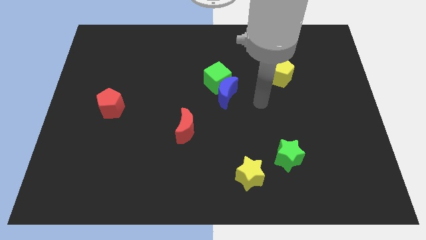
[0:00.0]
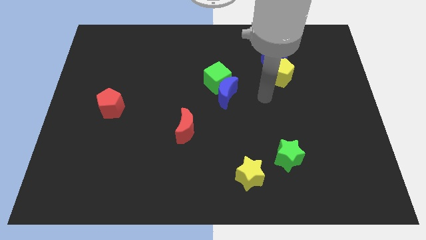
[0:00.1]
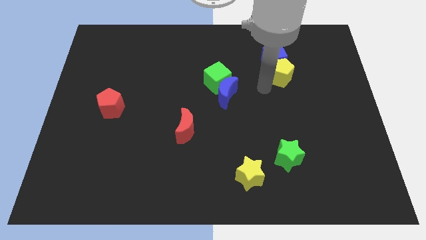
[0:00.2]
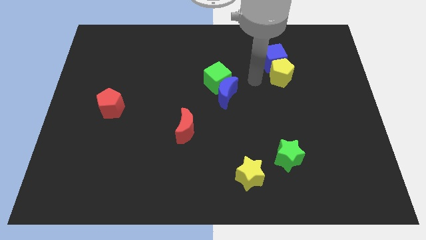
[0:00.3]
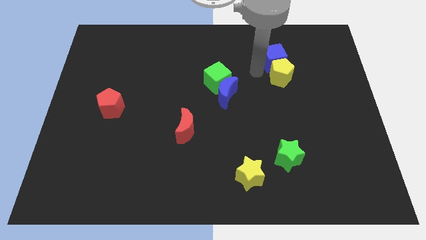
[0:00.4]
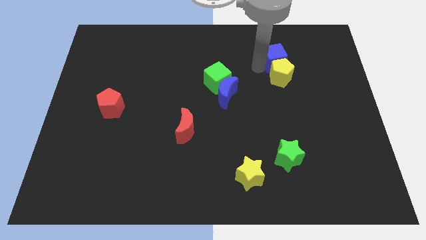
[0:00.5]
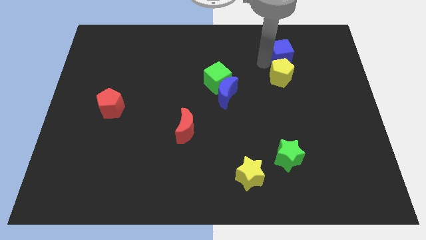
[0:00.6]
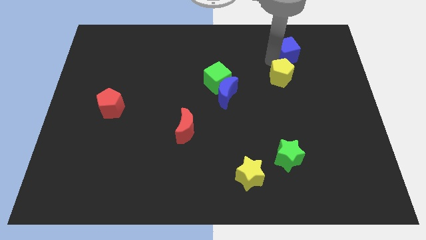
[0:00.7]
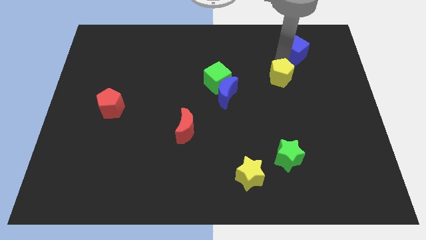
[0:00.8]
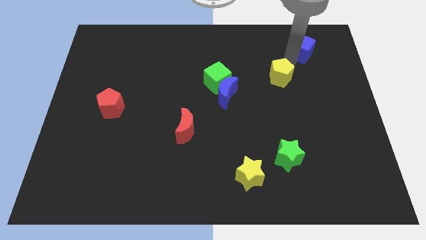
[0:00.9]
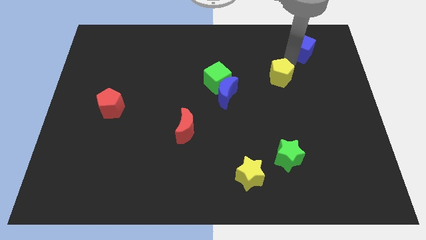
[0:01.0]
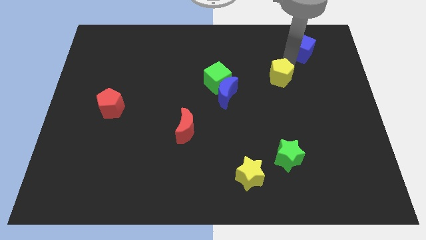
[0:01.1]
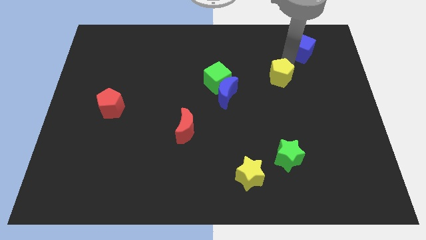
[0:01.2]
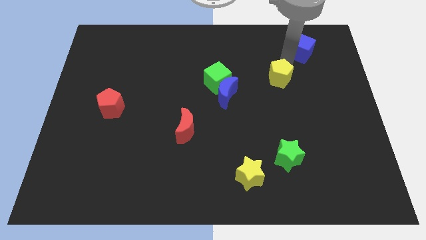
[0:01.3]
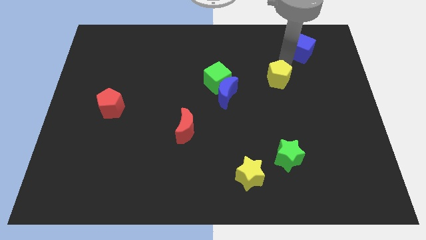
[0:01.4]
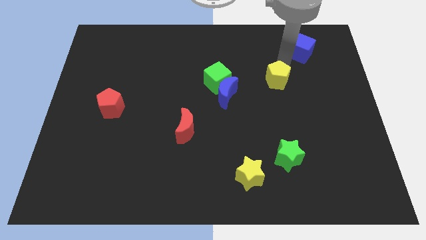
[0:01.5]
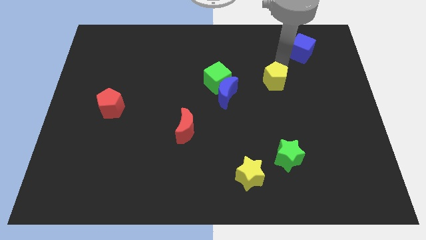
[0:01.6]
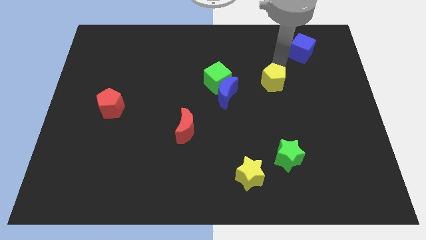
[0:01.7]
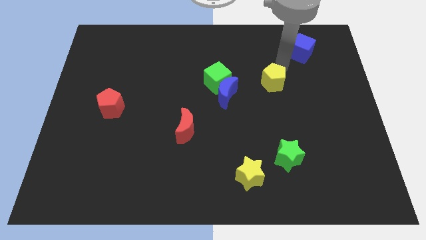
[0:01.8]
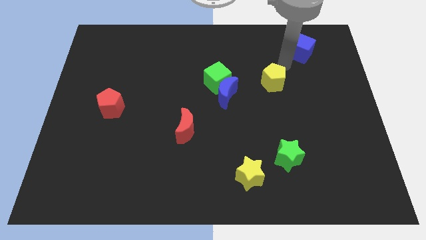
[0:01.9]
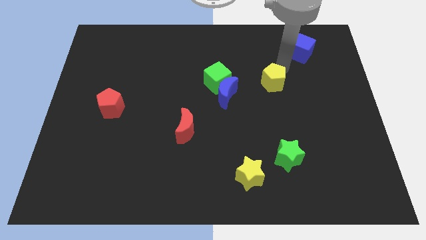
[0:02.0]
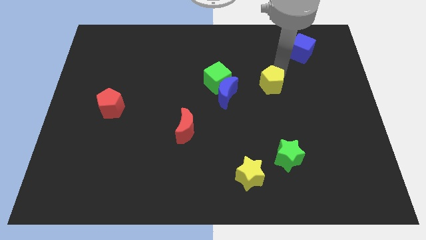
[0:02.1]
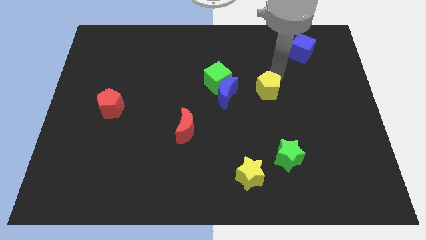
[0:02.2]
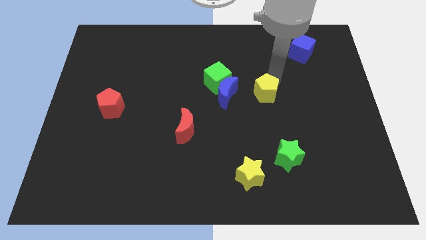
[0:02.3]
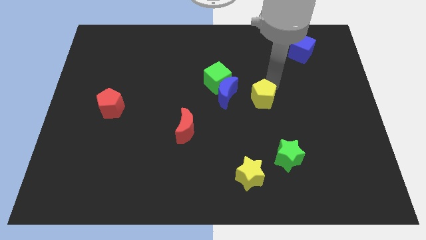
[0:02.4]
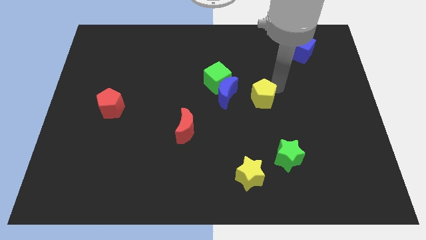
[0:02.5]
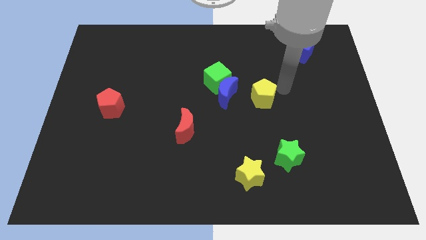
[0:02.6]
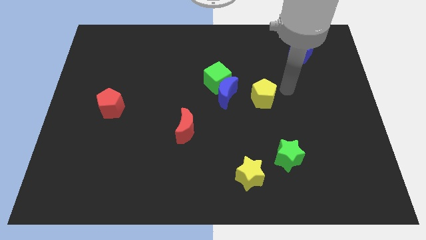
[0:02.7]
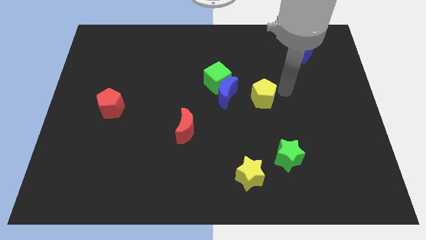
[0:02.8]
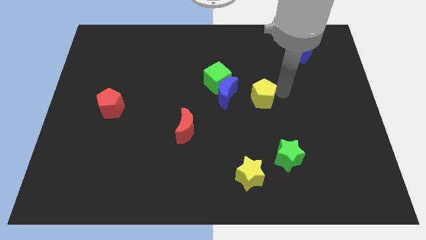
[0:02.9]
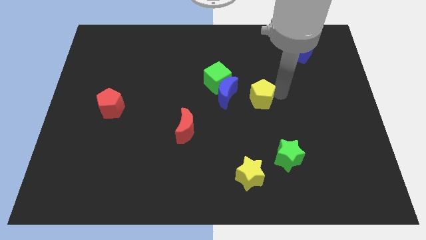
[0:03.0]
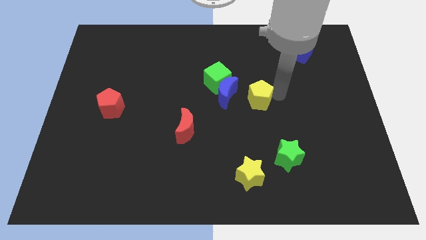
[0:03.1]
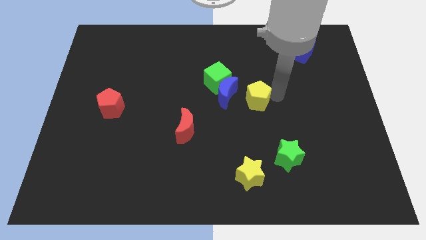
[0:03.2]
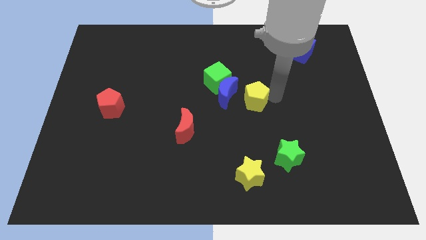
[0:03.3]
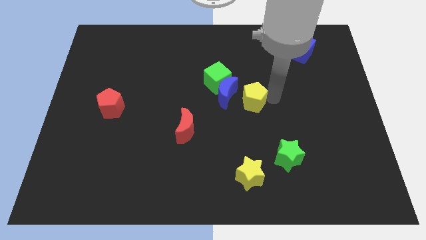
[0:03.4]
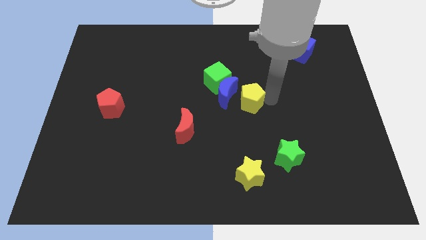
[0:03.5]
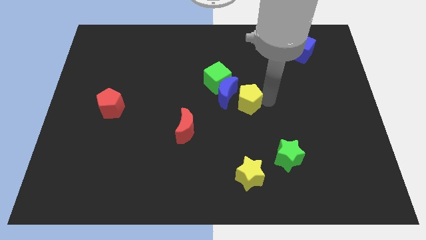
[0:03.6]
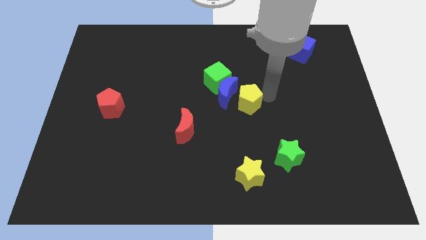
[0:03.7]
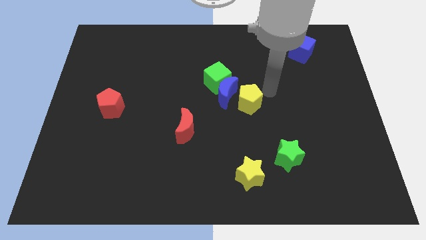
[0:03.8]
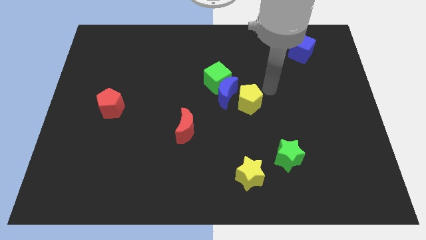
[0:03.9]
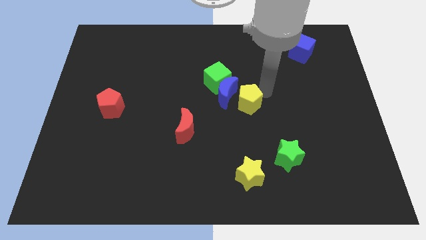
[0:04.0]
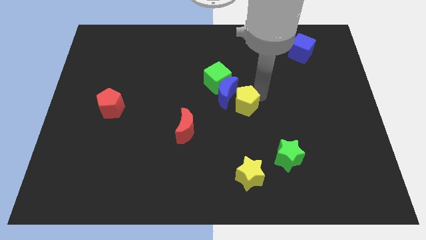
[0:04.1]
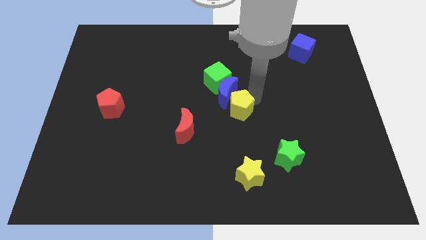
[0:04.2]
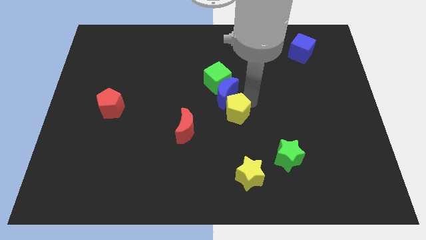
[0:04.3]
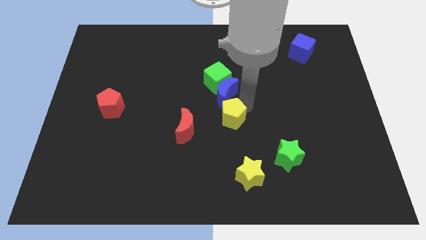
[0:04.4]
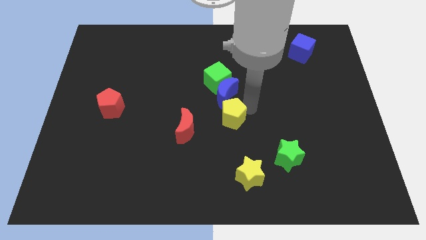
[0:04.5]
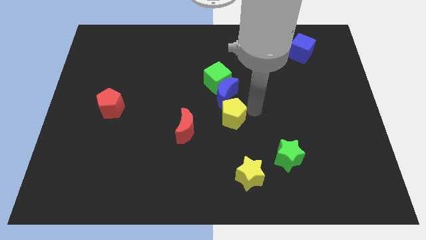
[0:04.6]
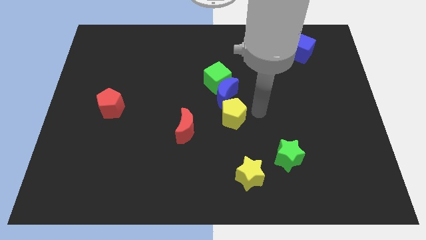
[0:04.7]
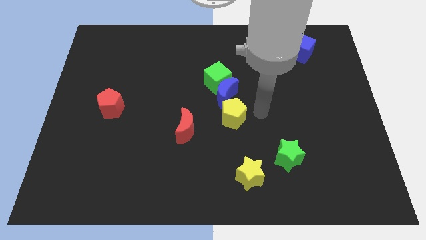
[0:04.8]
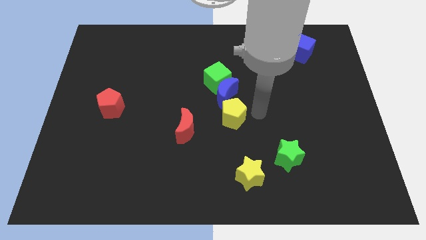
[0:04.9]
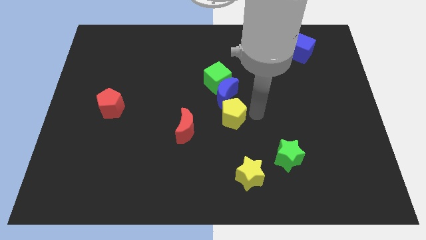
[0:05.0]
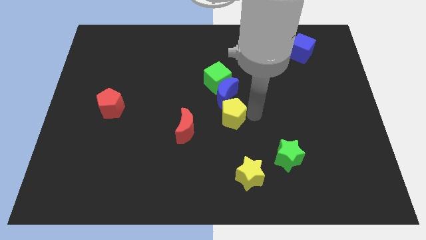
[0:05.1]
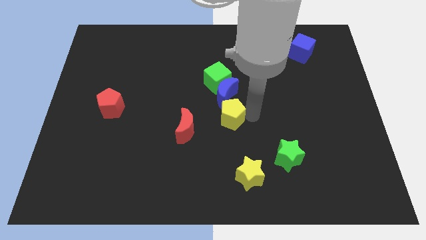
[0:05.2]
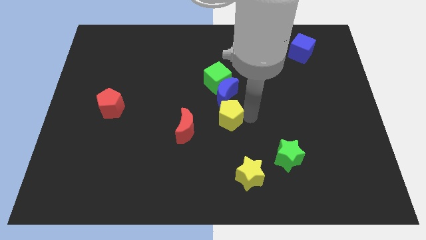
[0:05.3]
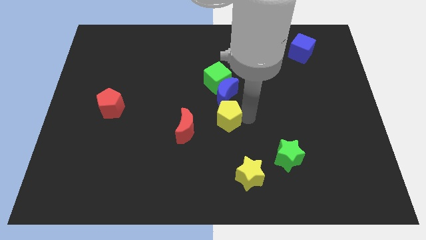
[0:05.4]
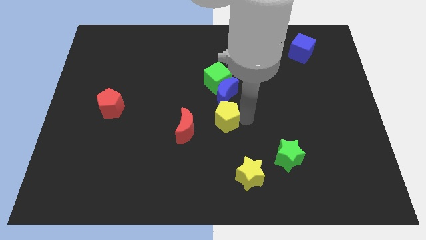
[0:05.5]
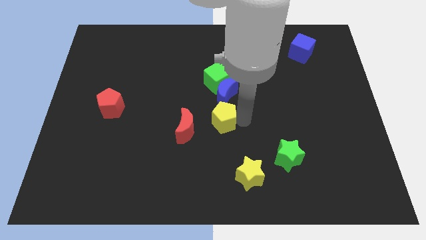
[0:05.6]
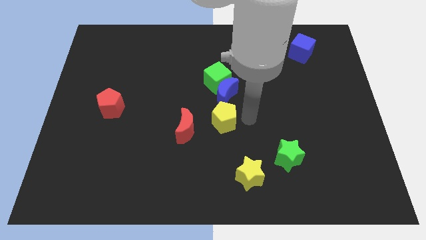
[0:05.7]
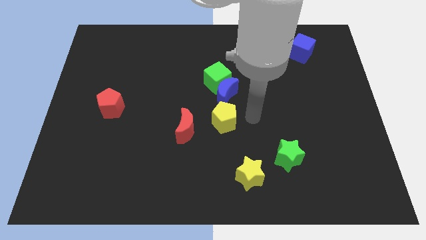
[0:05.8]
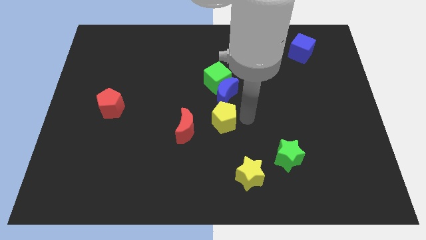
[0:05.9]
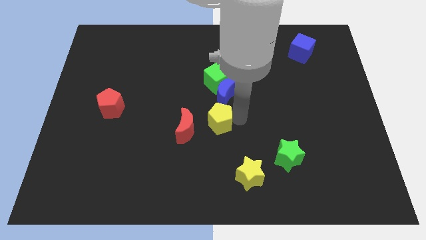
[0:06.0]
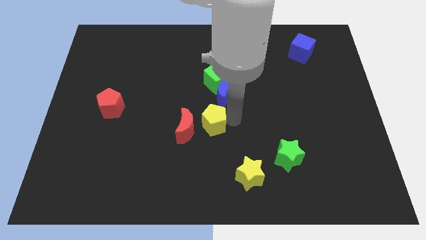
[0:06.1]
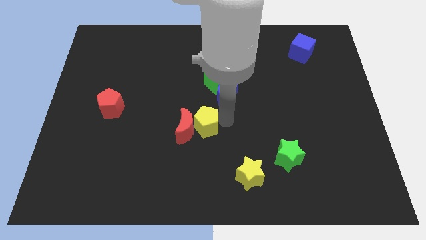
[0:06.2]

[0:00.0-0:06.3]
move the yellow pentagon towards the red moon
